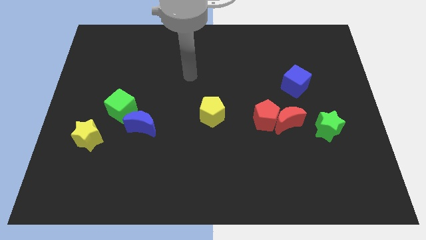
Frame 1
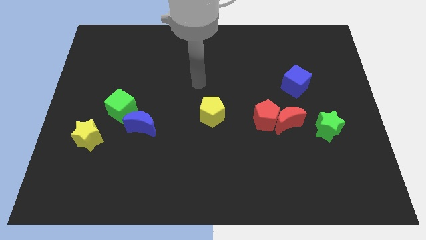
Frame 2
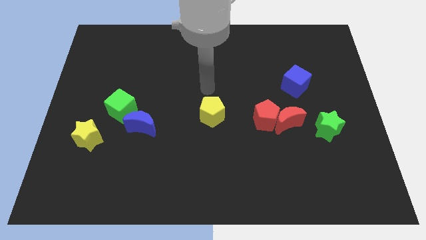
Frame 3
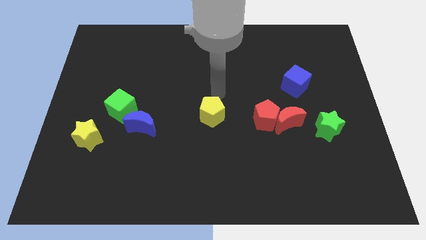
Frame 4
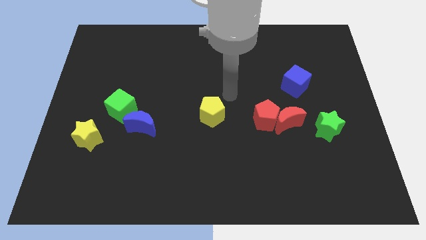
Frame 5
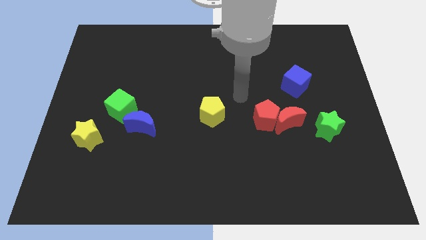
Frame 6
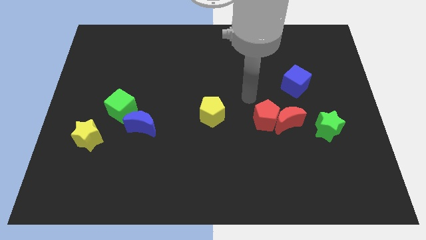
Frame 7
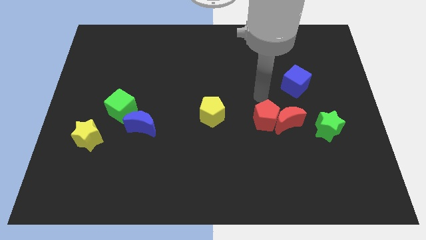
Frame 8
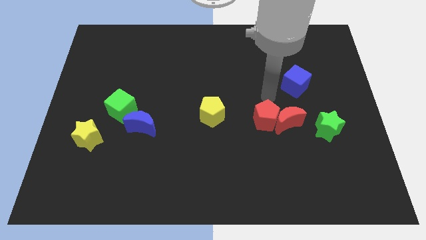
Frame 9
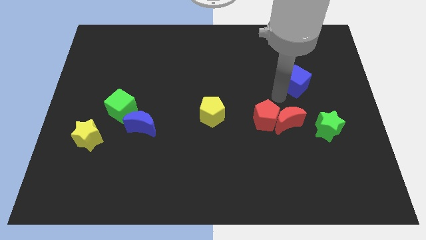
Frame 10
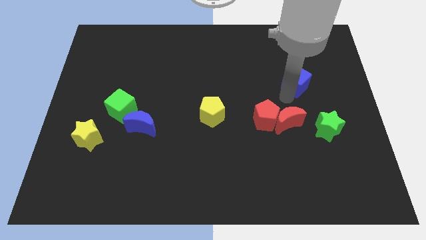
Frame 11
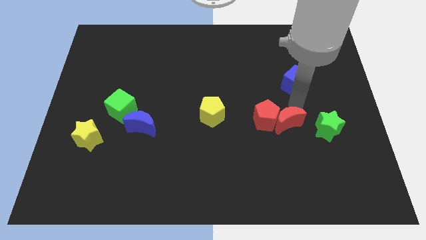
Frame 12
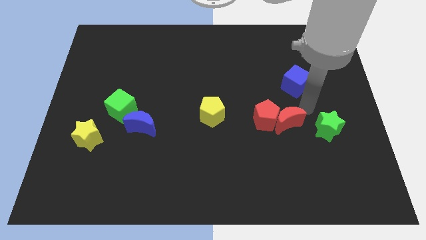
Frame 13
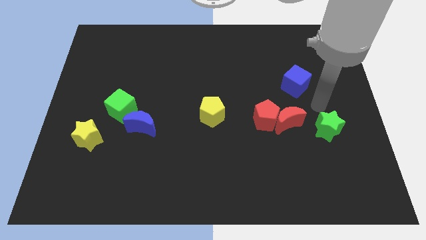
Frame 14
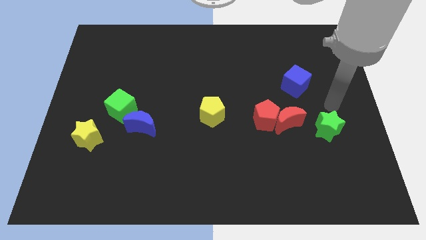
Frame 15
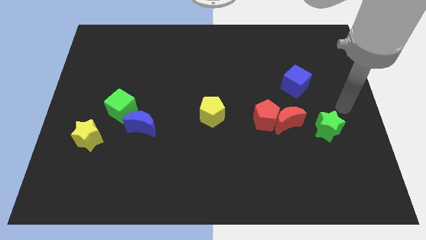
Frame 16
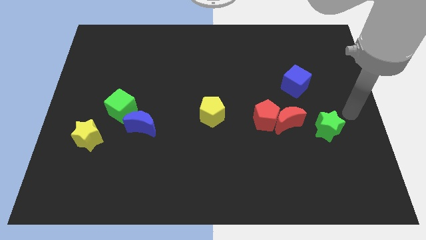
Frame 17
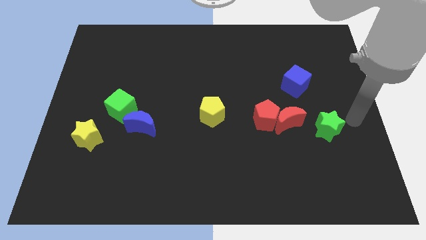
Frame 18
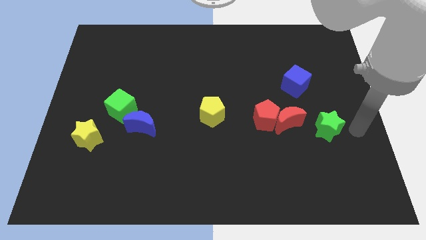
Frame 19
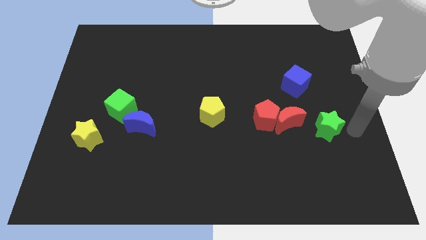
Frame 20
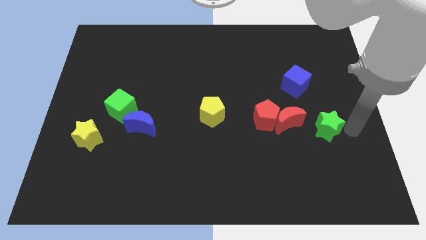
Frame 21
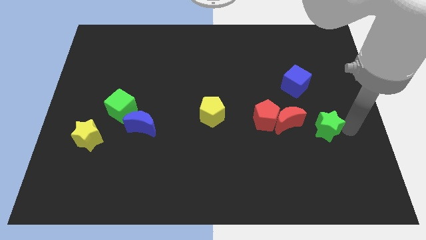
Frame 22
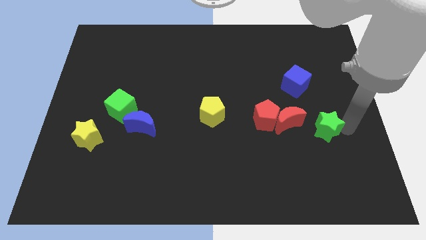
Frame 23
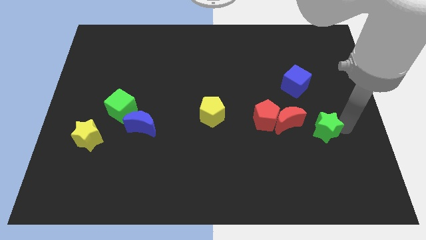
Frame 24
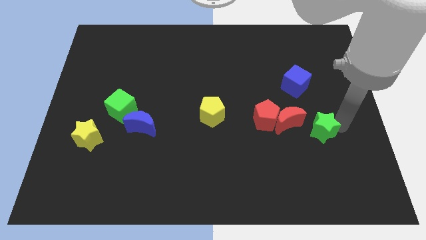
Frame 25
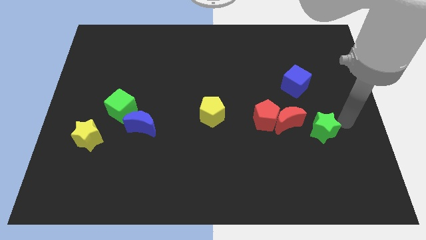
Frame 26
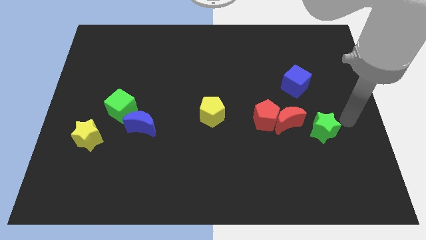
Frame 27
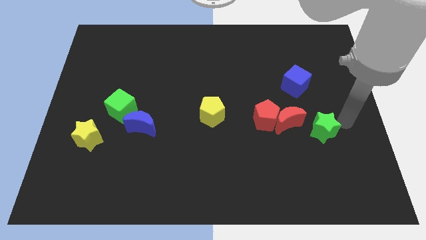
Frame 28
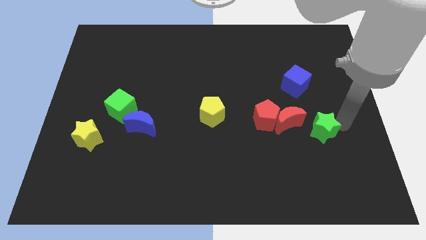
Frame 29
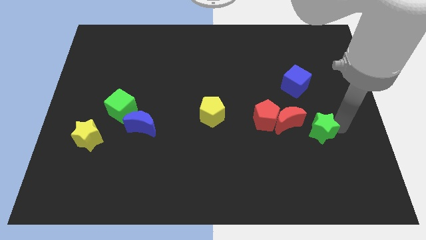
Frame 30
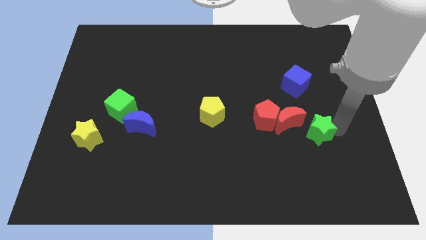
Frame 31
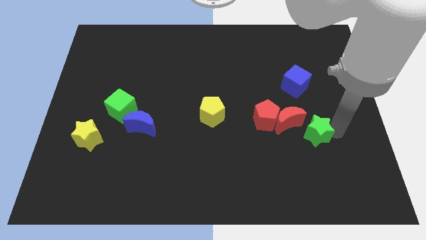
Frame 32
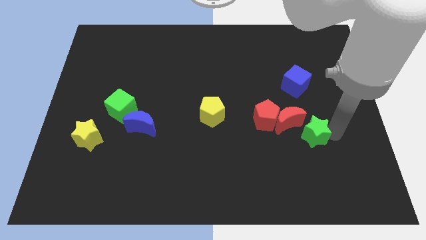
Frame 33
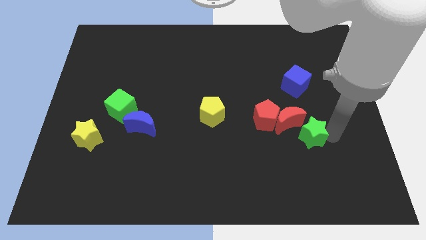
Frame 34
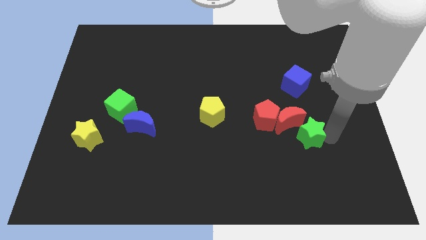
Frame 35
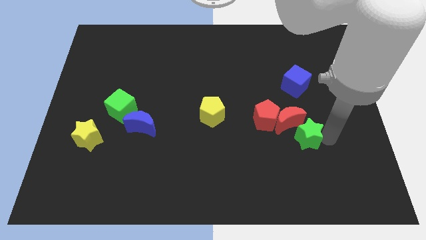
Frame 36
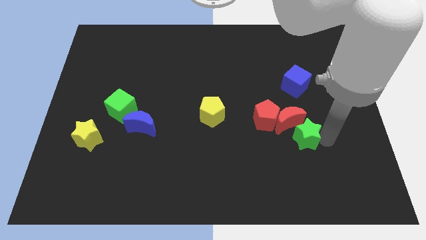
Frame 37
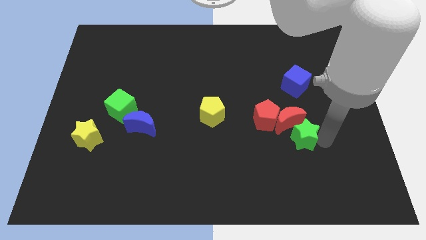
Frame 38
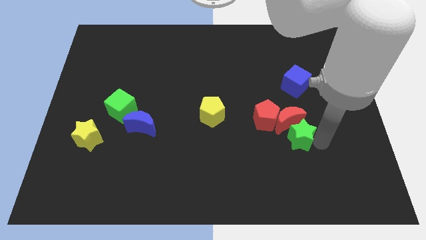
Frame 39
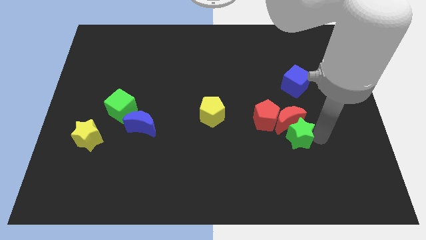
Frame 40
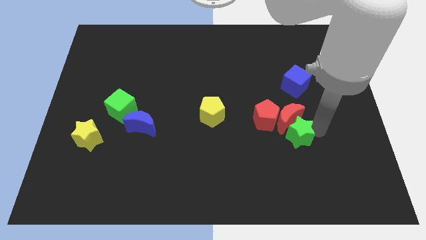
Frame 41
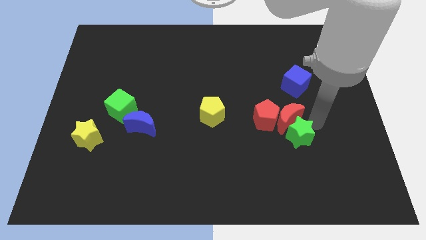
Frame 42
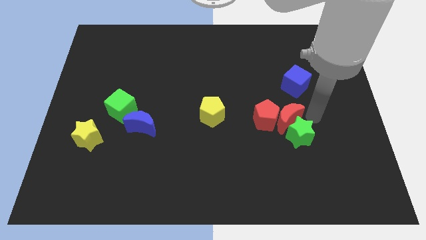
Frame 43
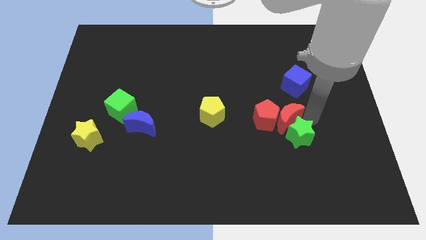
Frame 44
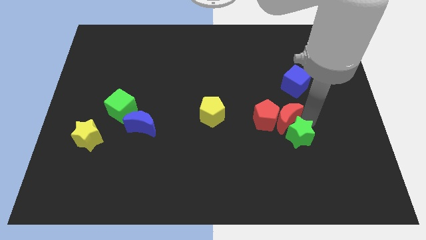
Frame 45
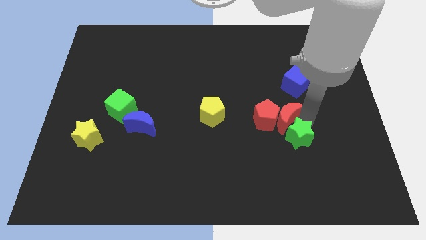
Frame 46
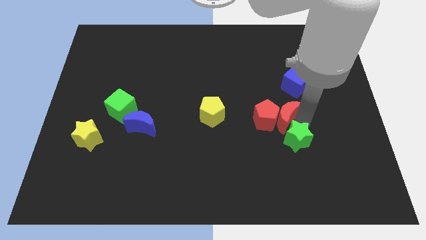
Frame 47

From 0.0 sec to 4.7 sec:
move the green star down and to the left somewhat

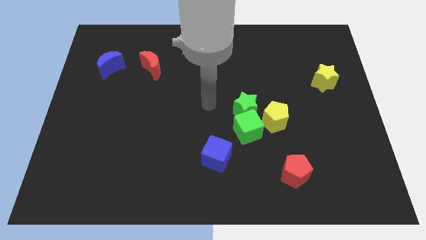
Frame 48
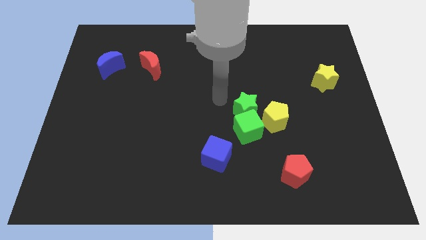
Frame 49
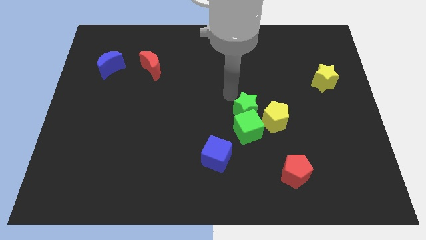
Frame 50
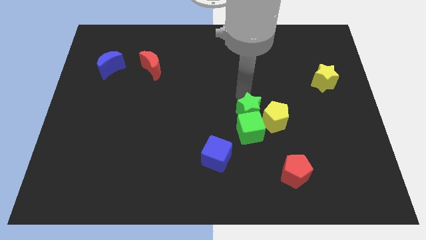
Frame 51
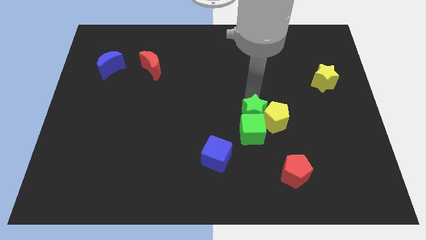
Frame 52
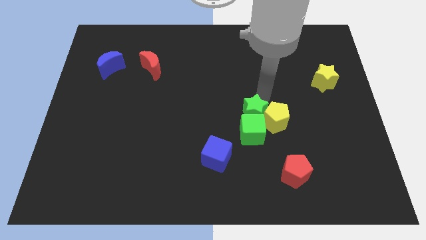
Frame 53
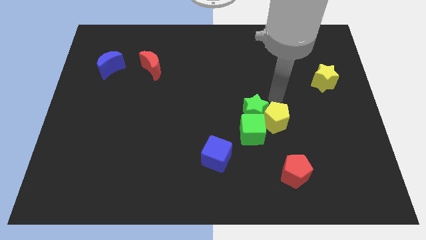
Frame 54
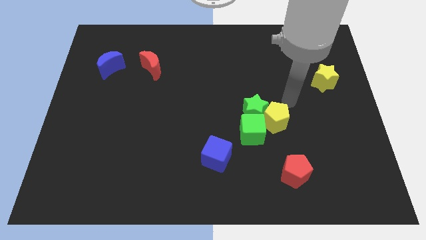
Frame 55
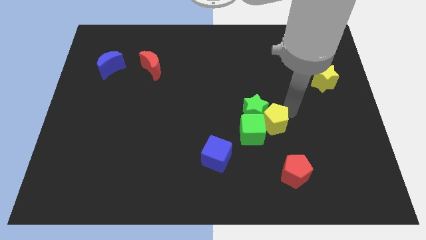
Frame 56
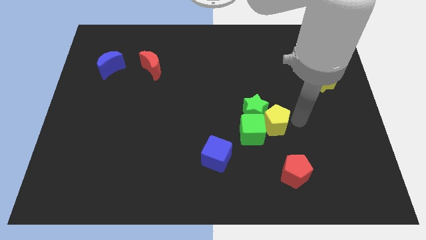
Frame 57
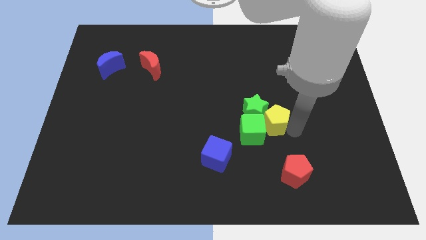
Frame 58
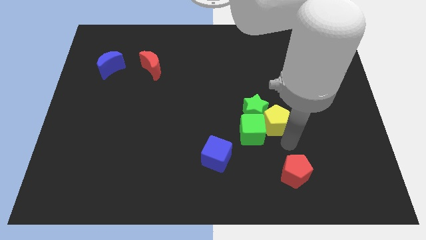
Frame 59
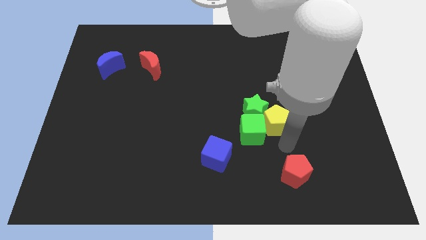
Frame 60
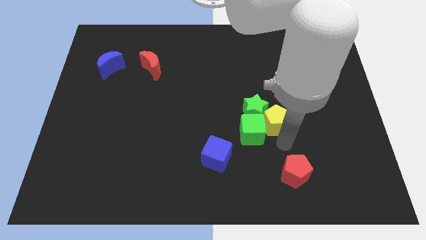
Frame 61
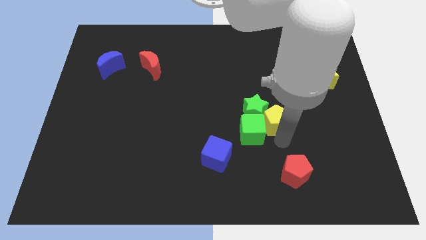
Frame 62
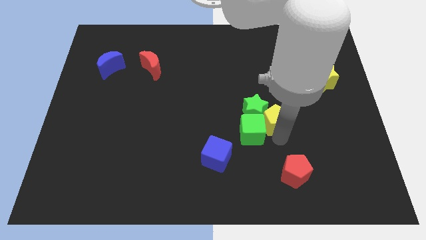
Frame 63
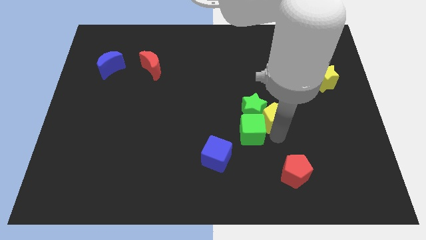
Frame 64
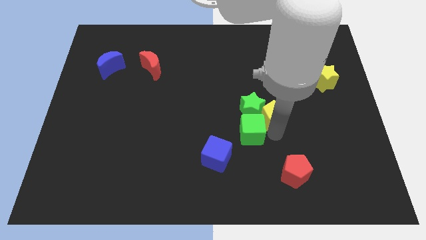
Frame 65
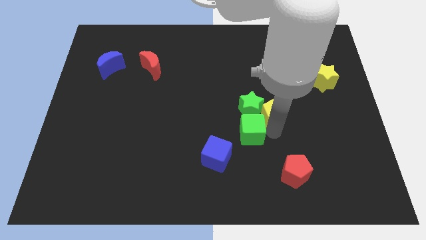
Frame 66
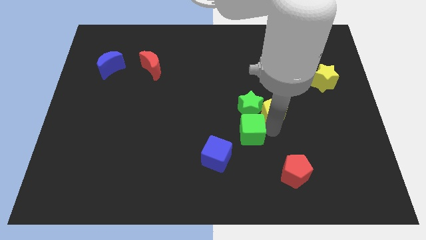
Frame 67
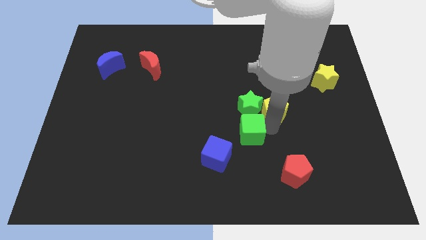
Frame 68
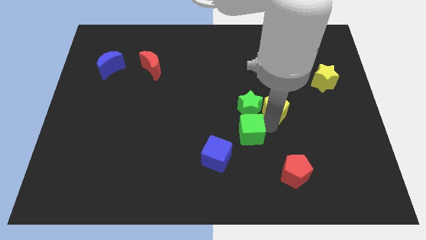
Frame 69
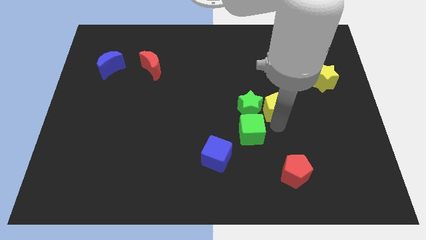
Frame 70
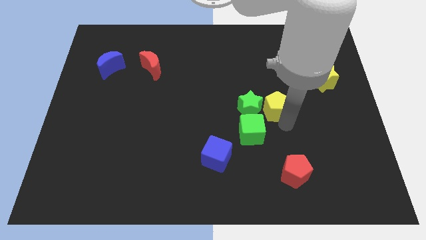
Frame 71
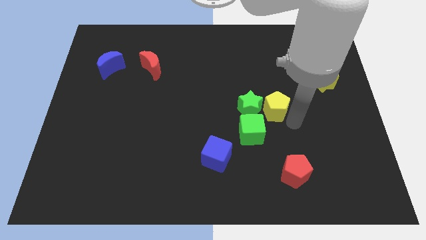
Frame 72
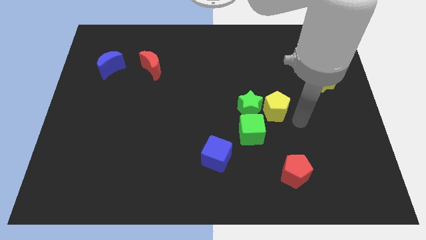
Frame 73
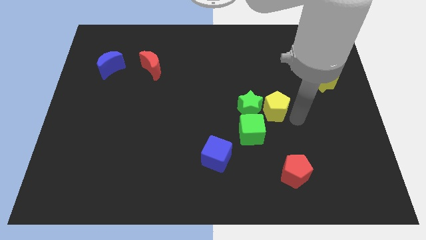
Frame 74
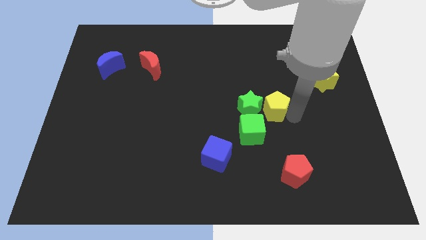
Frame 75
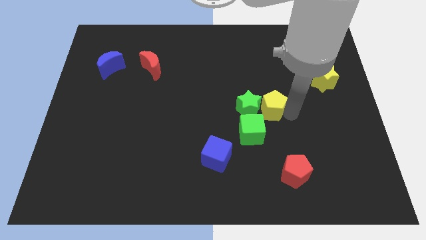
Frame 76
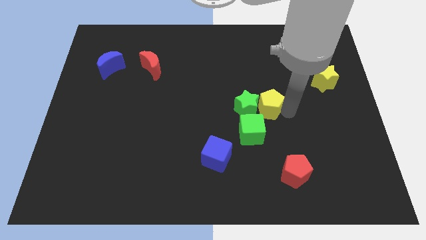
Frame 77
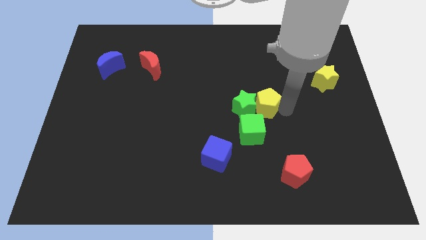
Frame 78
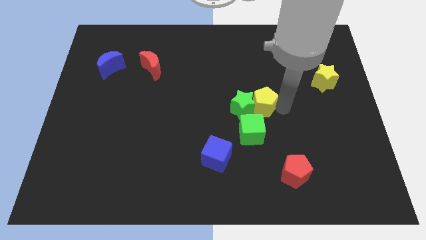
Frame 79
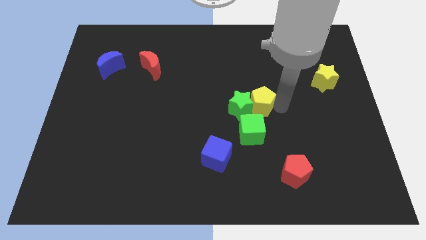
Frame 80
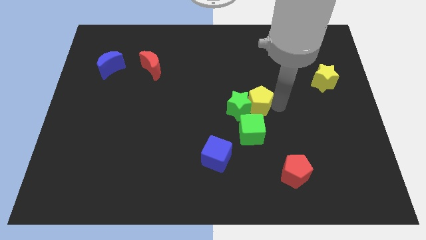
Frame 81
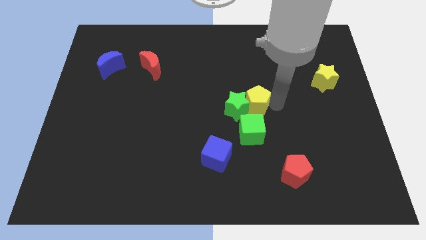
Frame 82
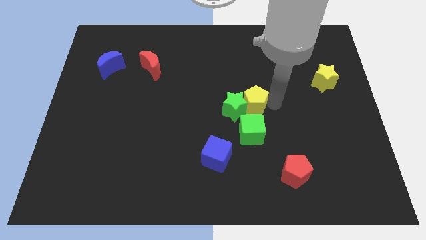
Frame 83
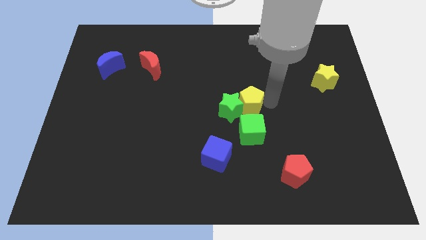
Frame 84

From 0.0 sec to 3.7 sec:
slightly slide the yellow pentagon up and left
